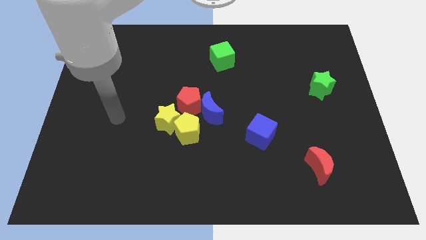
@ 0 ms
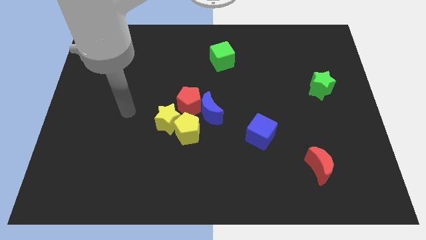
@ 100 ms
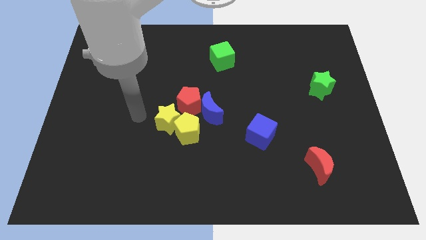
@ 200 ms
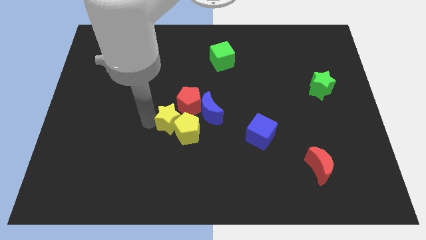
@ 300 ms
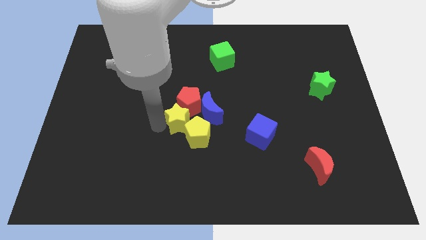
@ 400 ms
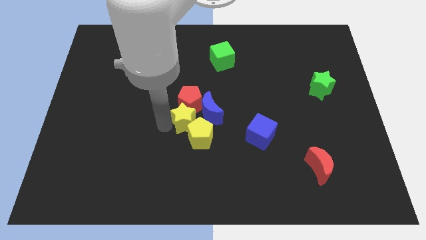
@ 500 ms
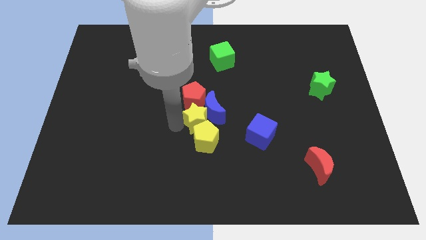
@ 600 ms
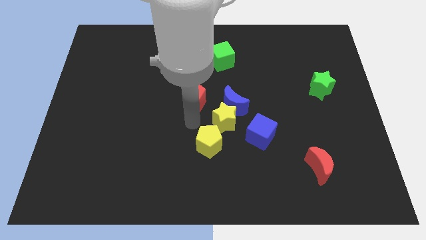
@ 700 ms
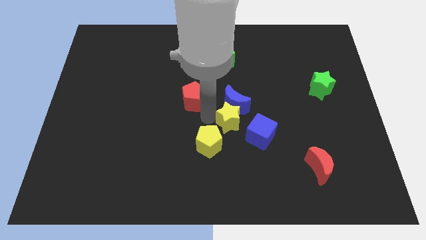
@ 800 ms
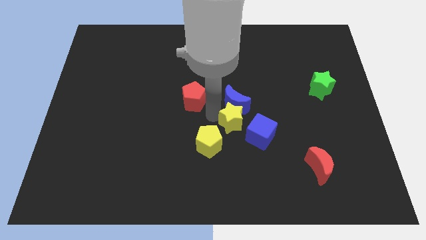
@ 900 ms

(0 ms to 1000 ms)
separate the red pentagon from the blue moon, yellow star, and yellow pentagon

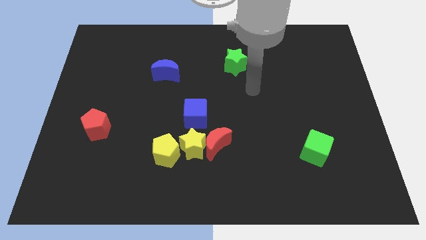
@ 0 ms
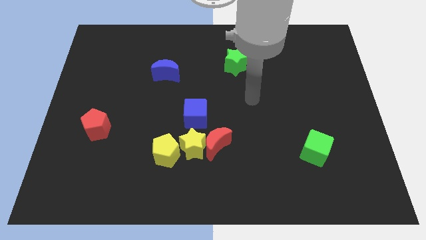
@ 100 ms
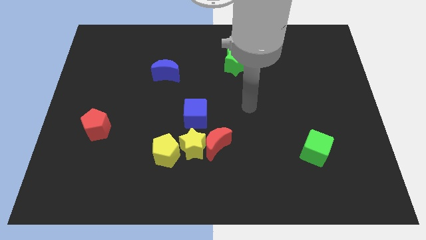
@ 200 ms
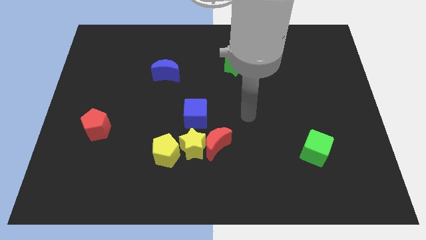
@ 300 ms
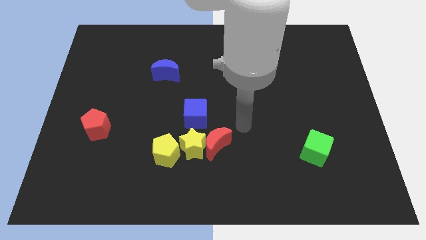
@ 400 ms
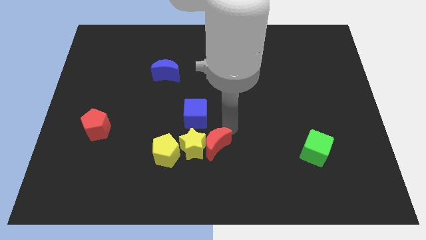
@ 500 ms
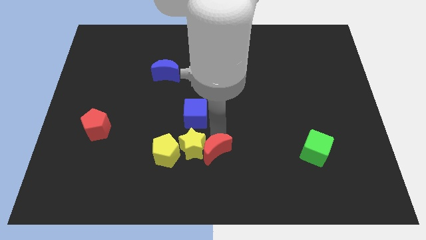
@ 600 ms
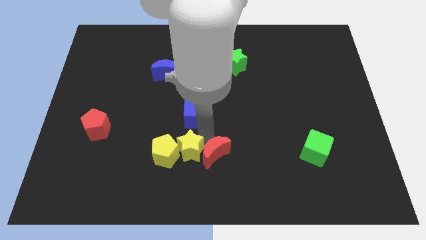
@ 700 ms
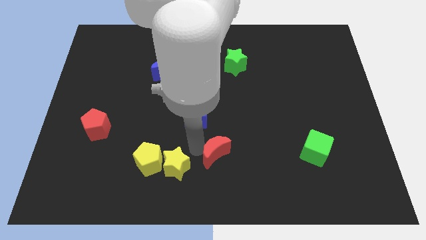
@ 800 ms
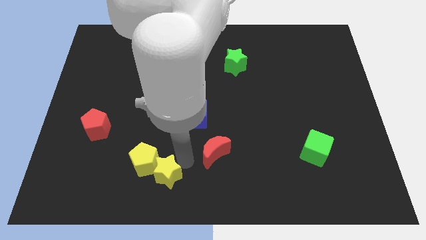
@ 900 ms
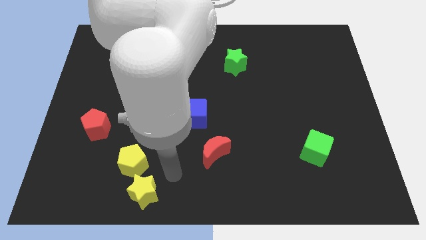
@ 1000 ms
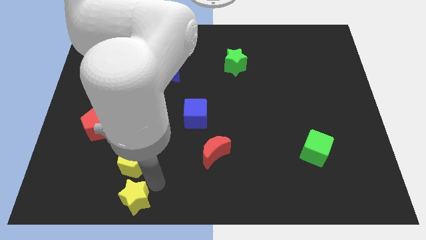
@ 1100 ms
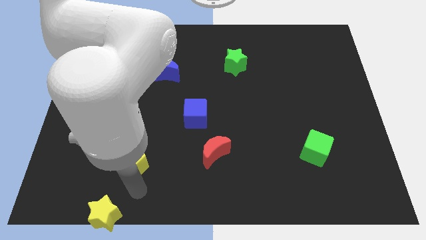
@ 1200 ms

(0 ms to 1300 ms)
separate the yellow pentagon from the yellow star

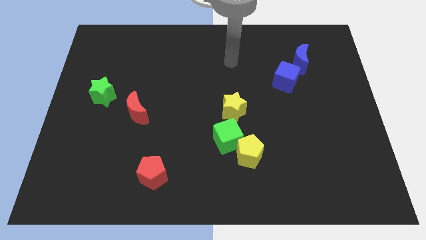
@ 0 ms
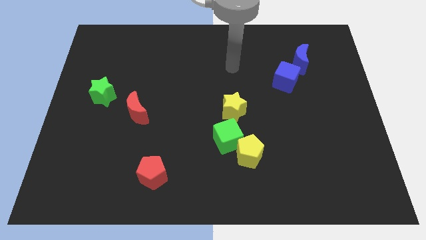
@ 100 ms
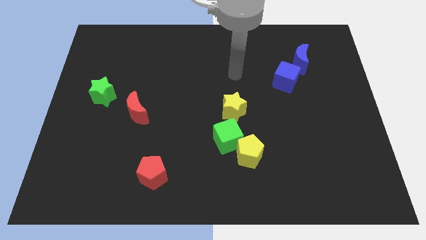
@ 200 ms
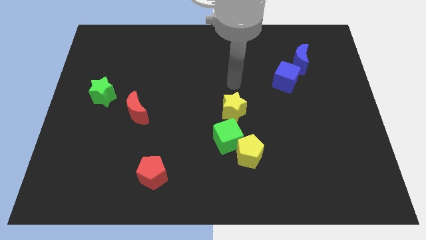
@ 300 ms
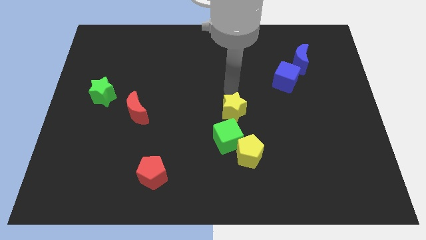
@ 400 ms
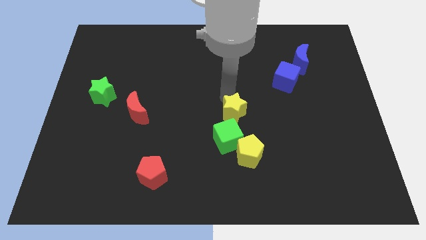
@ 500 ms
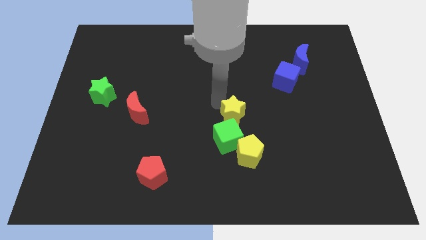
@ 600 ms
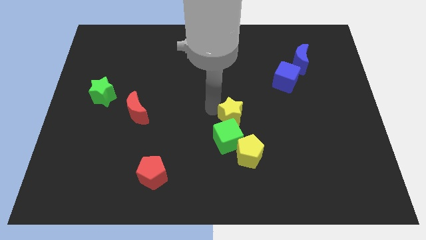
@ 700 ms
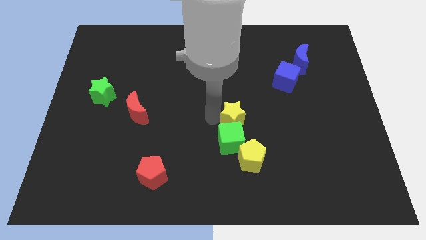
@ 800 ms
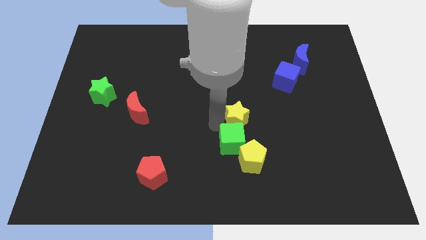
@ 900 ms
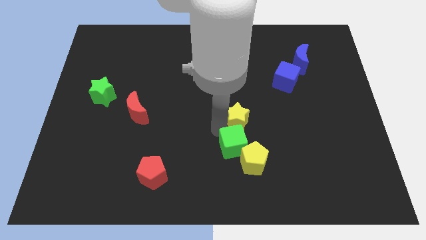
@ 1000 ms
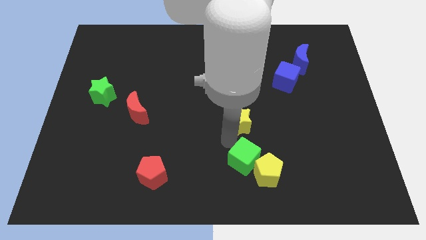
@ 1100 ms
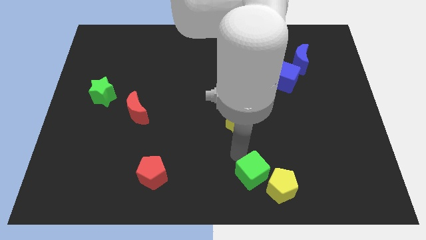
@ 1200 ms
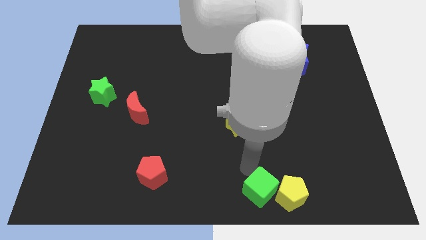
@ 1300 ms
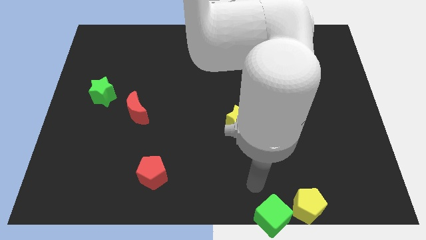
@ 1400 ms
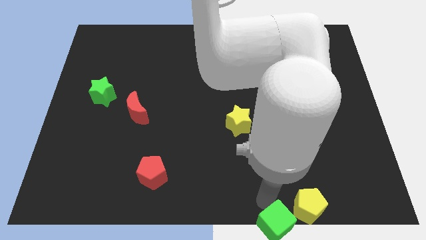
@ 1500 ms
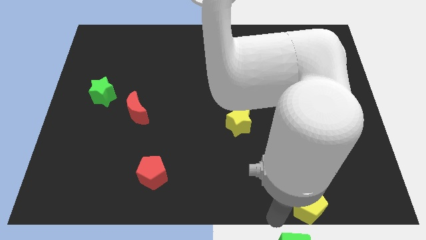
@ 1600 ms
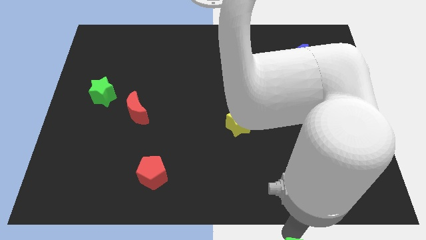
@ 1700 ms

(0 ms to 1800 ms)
pull the yellow pentagon apart from the green cube

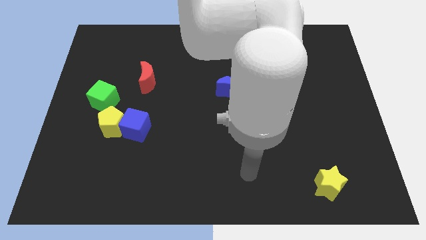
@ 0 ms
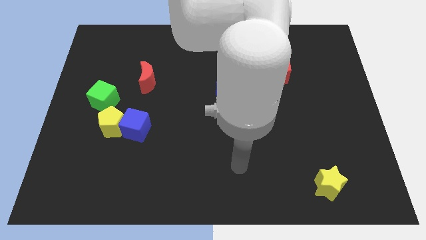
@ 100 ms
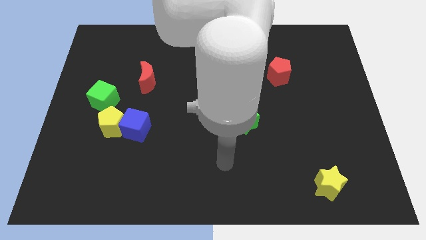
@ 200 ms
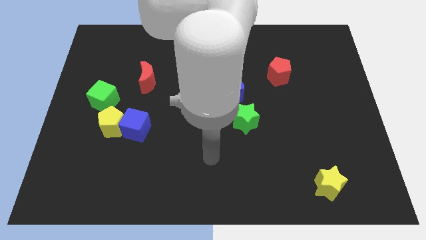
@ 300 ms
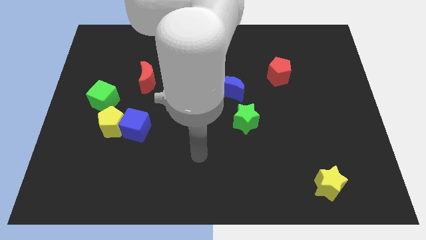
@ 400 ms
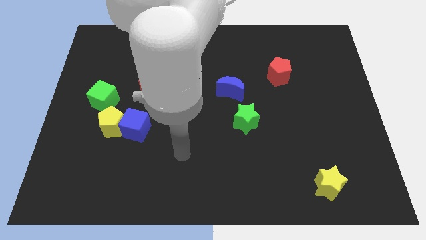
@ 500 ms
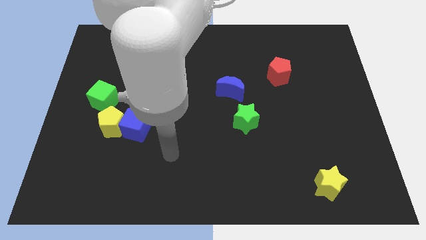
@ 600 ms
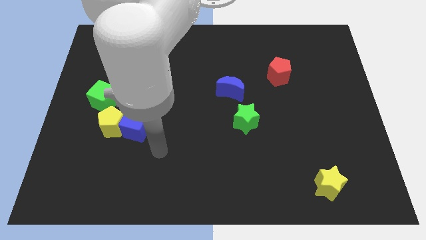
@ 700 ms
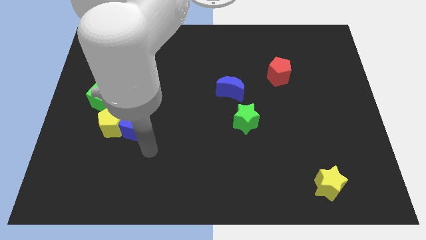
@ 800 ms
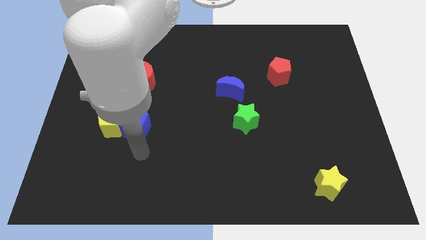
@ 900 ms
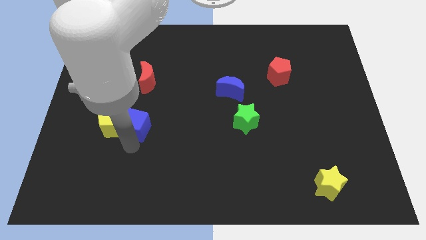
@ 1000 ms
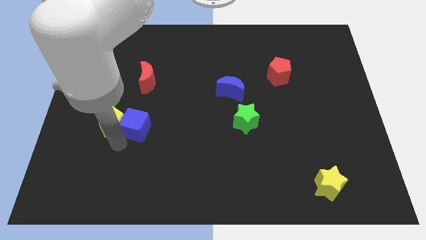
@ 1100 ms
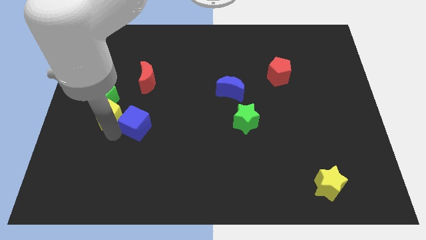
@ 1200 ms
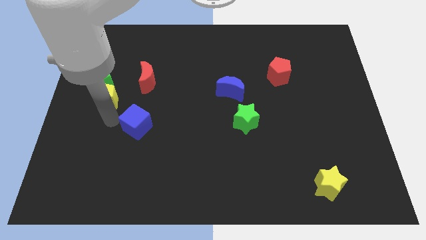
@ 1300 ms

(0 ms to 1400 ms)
pull the blue cube apart from the yellow pentagon

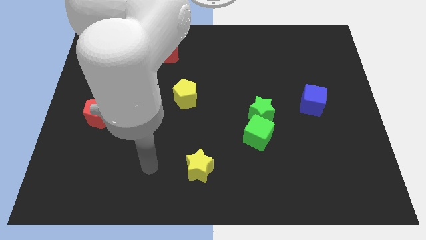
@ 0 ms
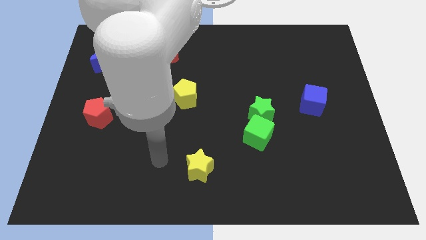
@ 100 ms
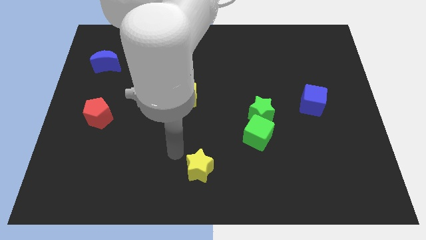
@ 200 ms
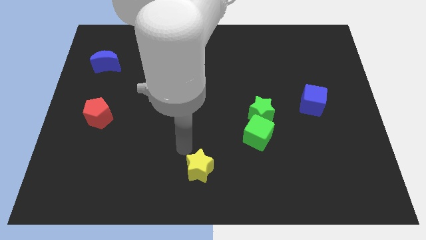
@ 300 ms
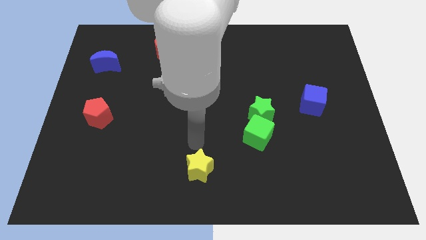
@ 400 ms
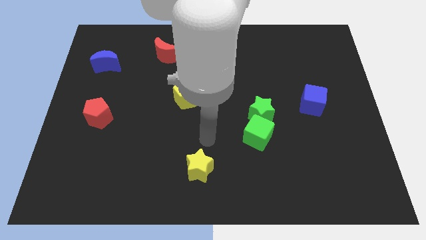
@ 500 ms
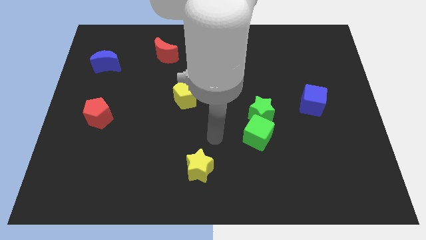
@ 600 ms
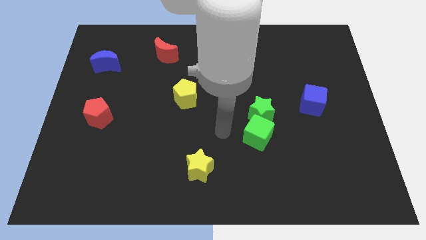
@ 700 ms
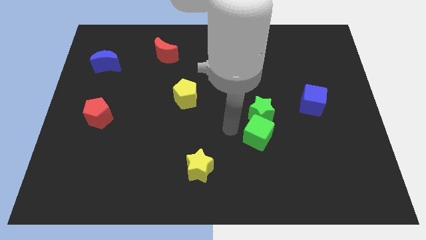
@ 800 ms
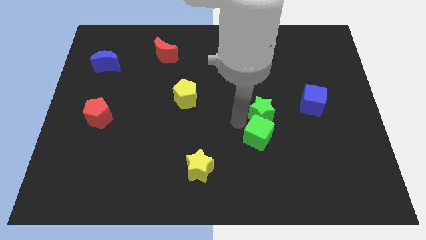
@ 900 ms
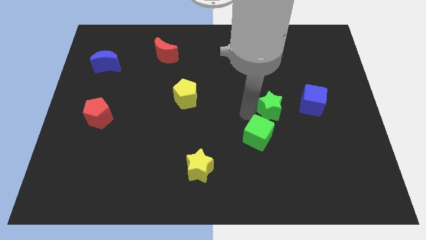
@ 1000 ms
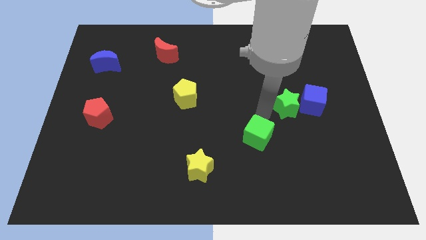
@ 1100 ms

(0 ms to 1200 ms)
move the green cube away from the green star

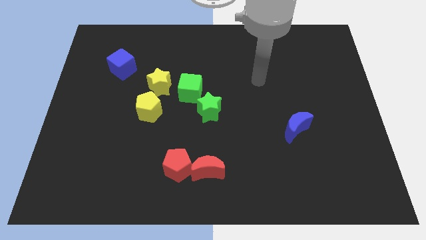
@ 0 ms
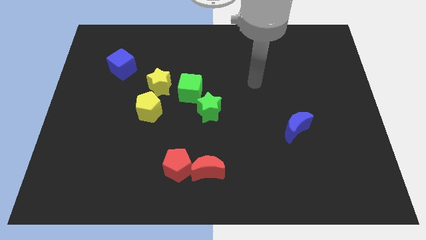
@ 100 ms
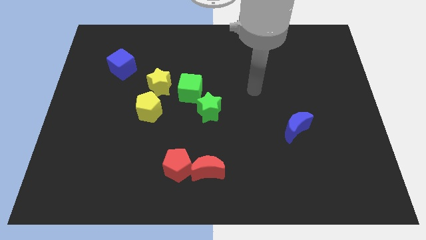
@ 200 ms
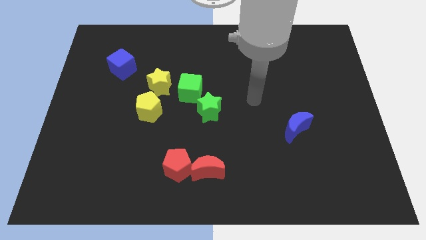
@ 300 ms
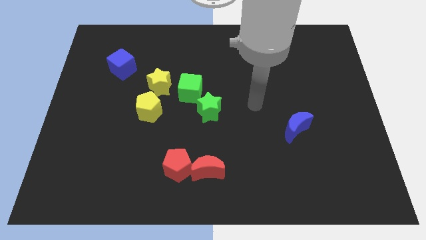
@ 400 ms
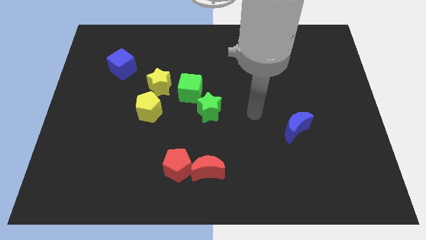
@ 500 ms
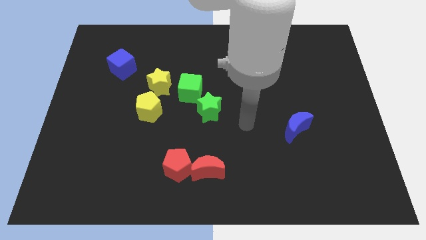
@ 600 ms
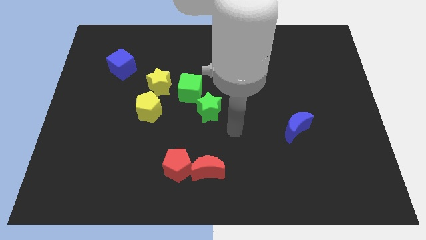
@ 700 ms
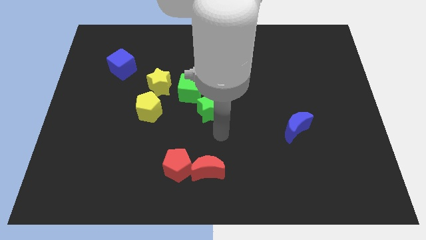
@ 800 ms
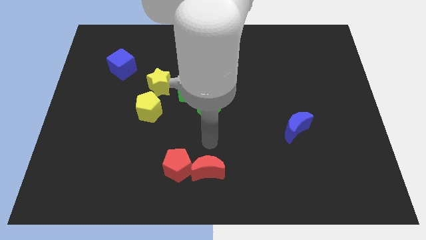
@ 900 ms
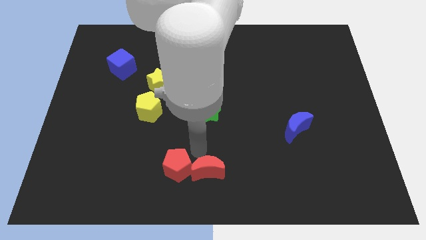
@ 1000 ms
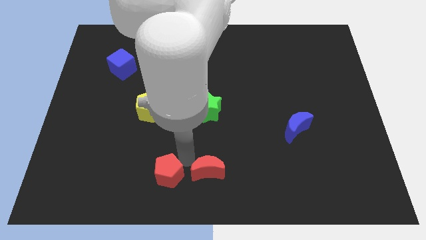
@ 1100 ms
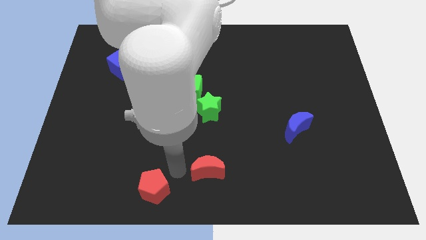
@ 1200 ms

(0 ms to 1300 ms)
pull the red moon apart from the red pentagon

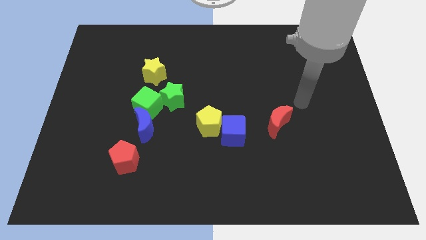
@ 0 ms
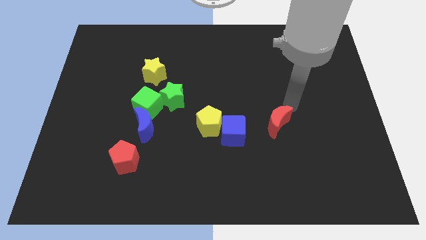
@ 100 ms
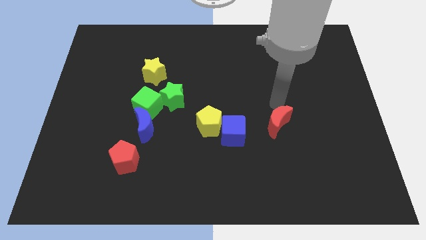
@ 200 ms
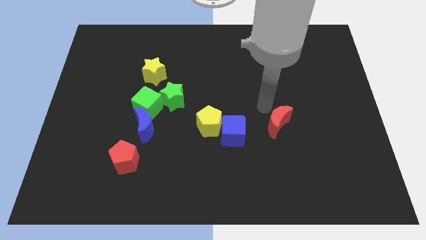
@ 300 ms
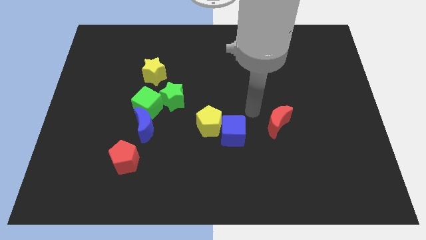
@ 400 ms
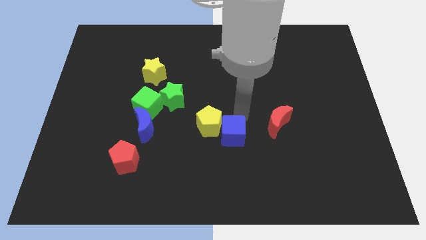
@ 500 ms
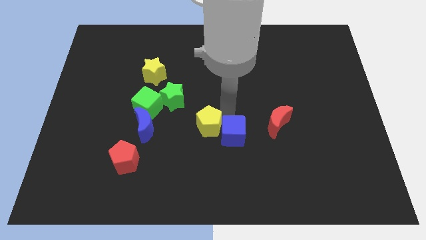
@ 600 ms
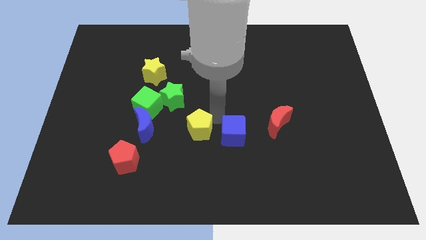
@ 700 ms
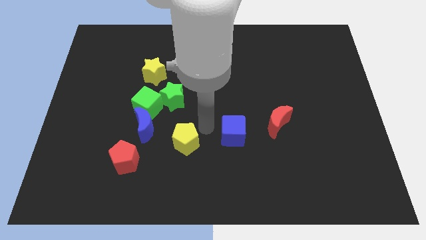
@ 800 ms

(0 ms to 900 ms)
move the blue cube away from the yellow pentagon

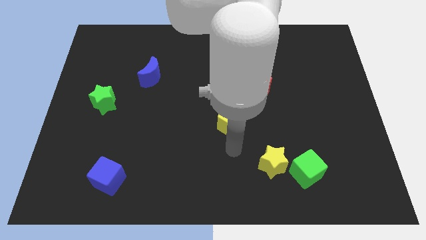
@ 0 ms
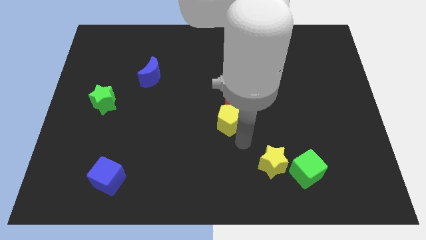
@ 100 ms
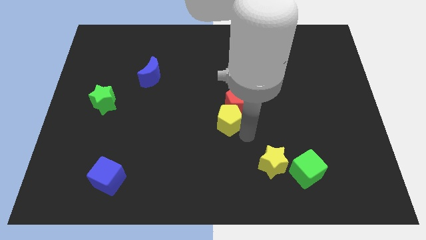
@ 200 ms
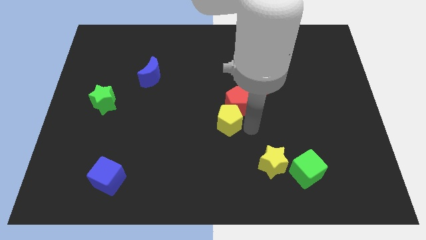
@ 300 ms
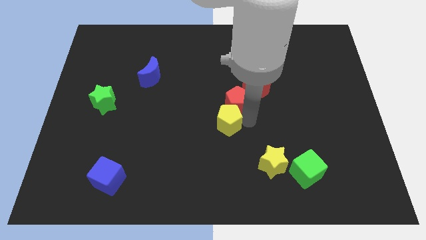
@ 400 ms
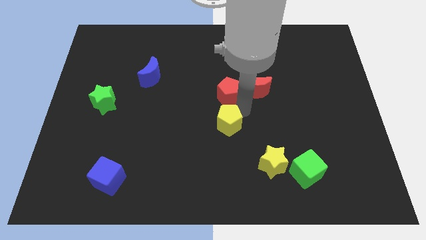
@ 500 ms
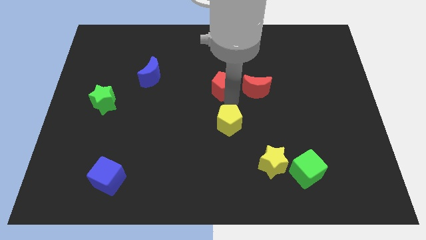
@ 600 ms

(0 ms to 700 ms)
separate the yellow pentagon from the red pentagon
